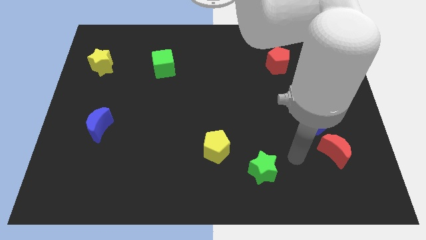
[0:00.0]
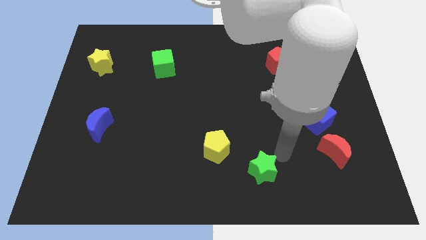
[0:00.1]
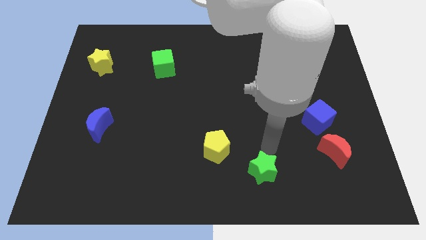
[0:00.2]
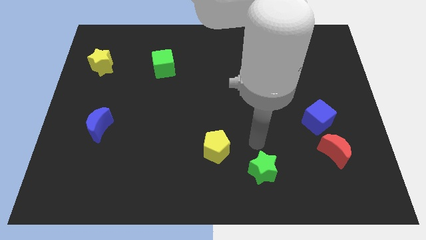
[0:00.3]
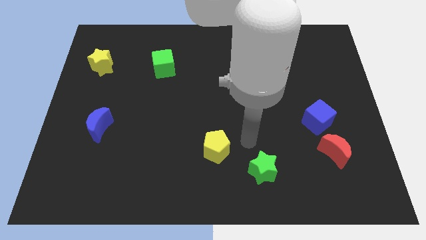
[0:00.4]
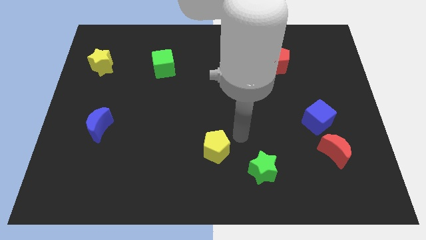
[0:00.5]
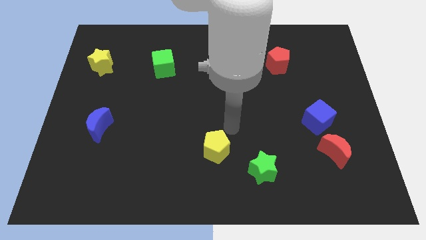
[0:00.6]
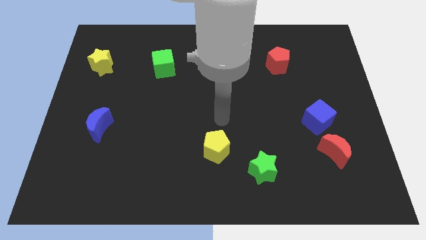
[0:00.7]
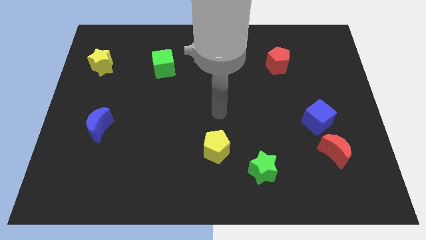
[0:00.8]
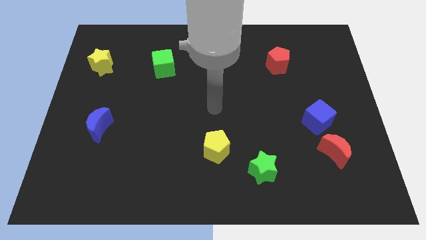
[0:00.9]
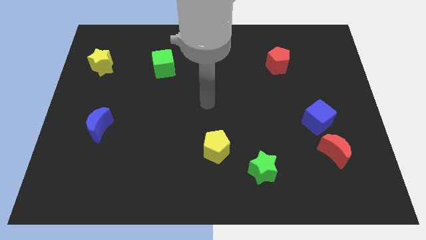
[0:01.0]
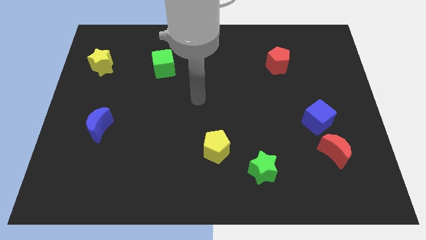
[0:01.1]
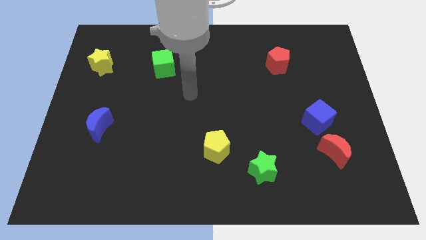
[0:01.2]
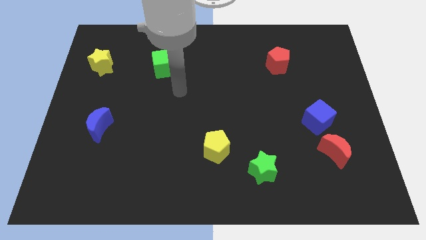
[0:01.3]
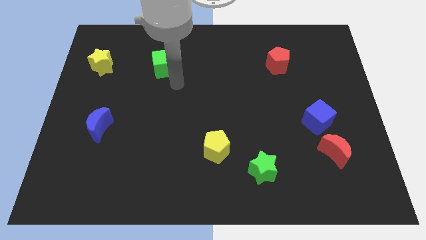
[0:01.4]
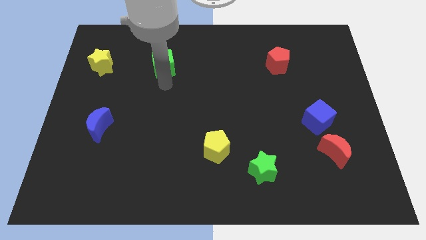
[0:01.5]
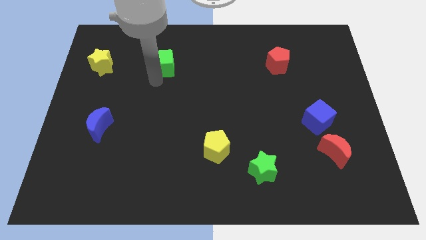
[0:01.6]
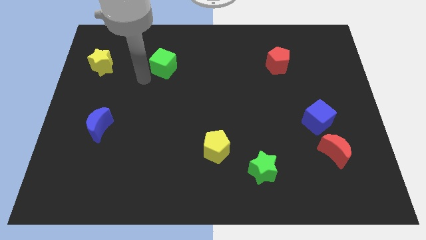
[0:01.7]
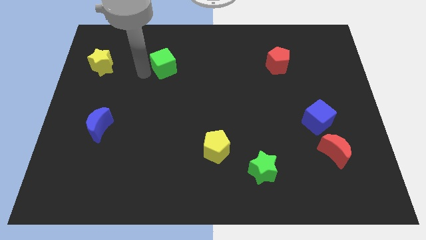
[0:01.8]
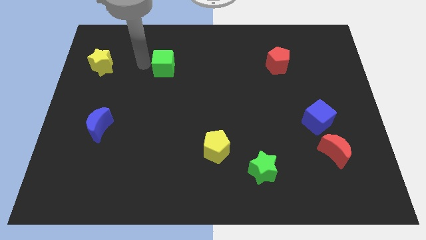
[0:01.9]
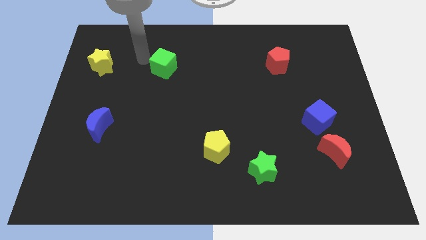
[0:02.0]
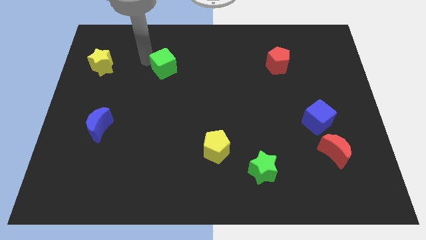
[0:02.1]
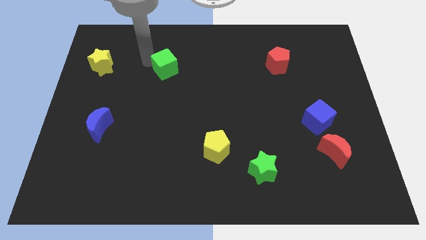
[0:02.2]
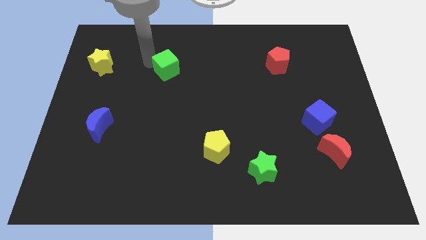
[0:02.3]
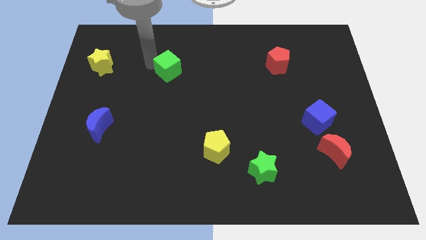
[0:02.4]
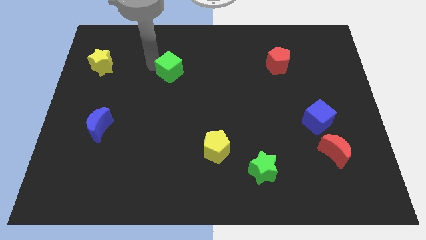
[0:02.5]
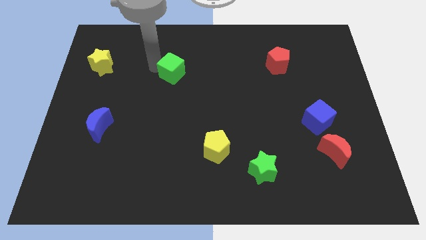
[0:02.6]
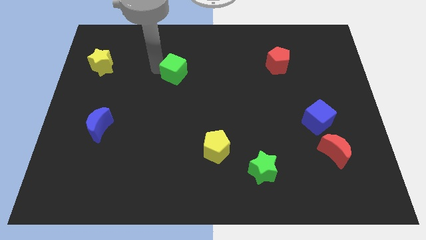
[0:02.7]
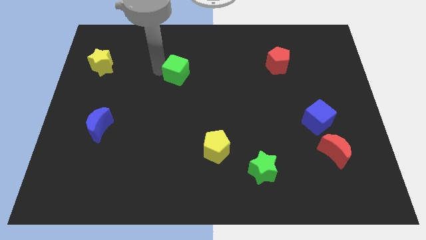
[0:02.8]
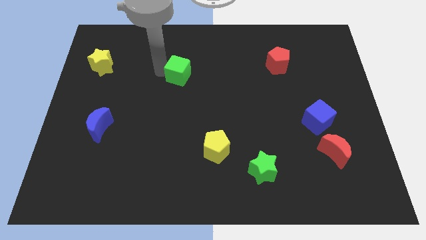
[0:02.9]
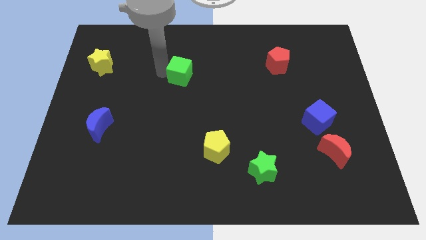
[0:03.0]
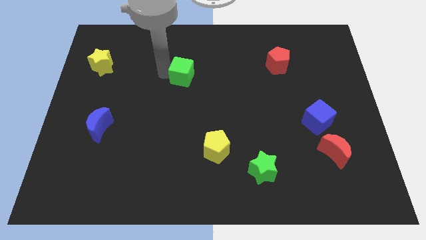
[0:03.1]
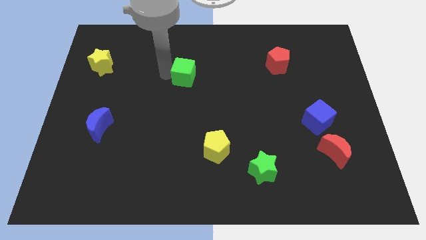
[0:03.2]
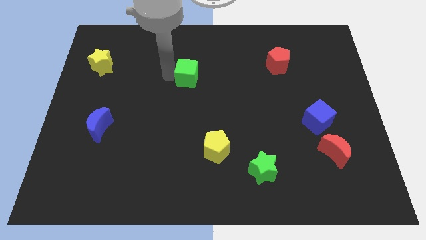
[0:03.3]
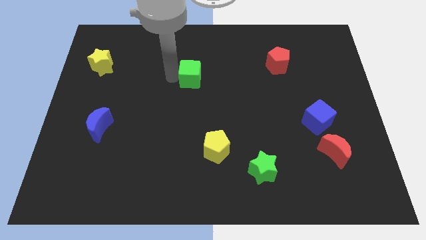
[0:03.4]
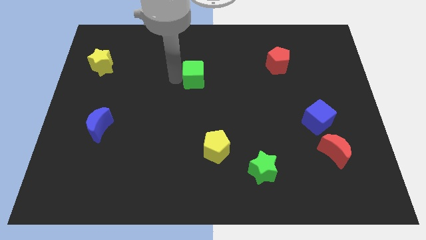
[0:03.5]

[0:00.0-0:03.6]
push the green cube to the right slightly

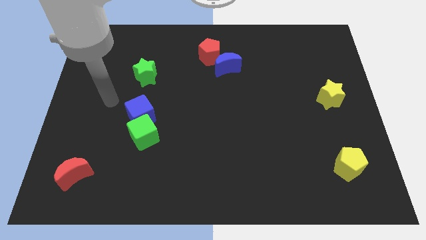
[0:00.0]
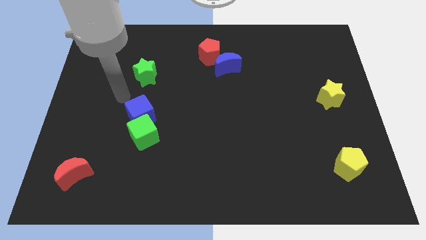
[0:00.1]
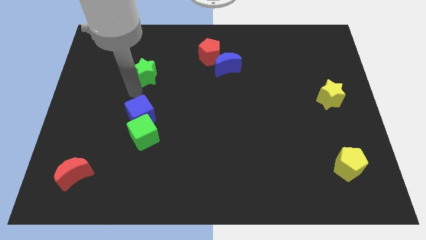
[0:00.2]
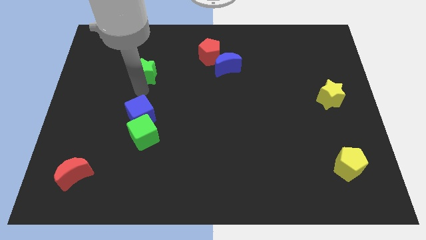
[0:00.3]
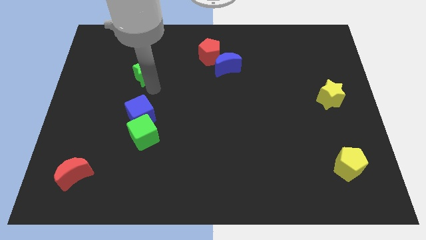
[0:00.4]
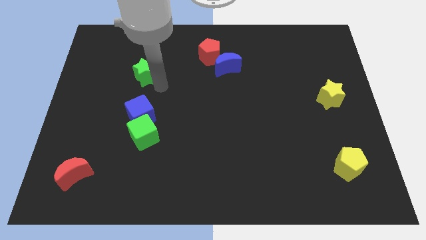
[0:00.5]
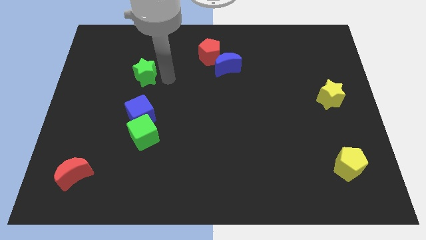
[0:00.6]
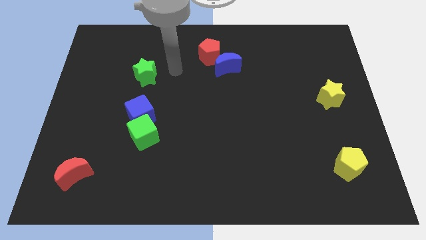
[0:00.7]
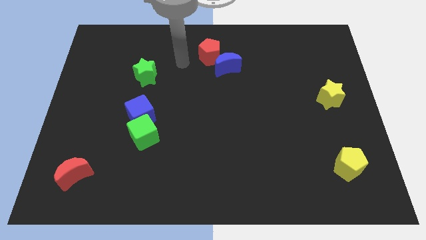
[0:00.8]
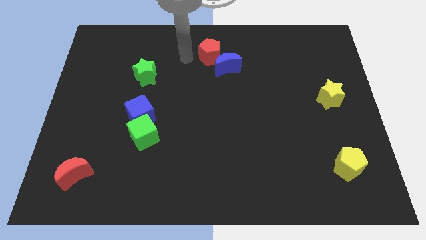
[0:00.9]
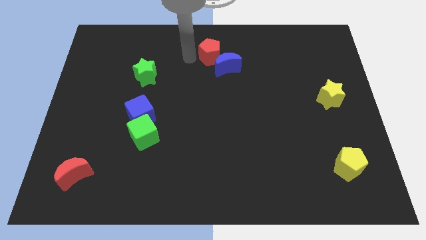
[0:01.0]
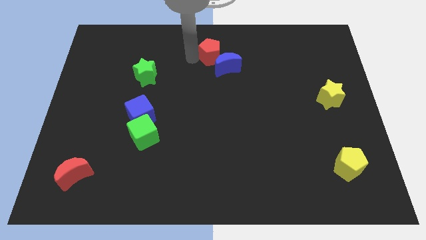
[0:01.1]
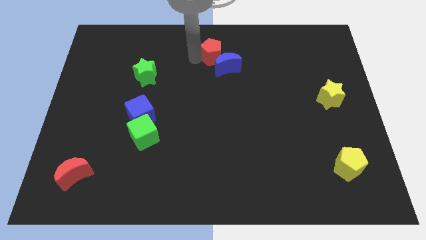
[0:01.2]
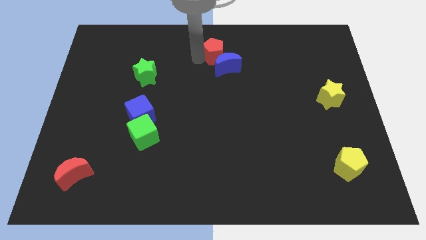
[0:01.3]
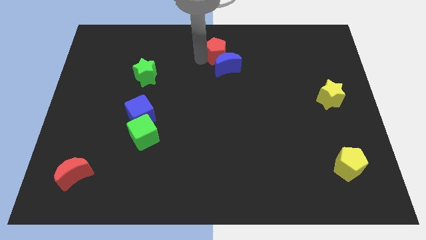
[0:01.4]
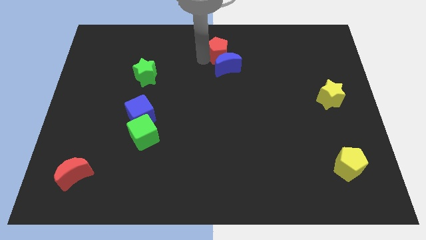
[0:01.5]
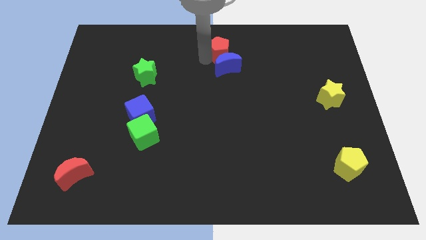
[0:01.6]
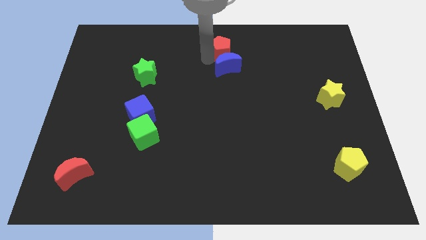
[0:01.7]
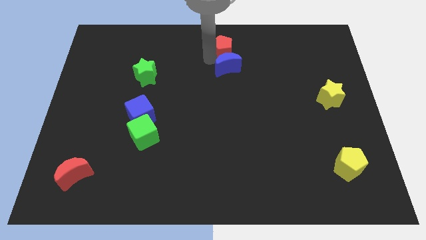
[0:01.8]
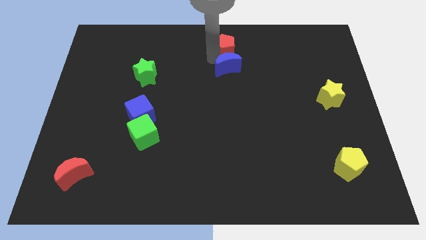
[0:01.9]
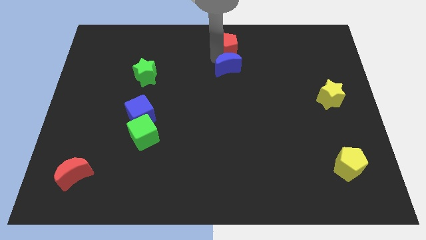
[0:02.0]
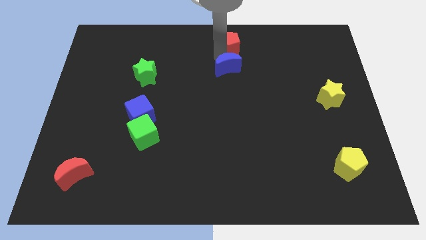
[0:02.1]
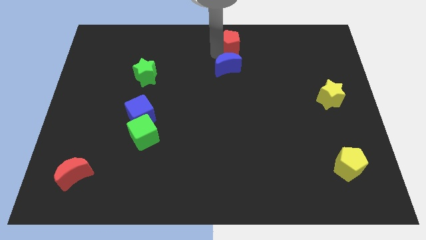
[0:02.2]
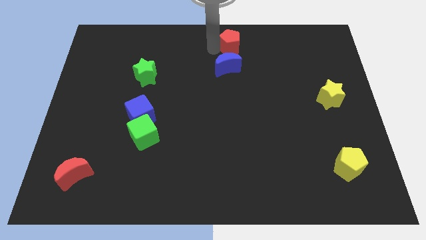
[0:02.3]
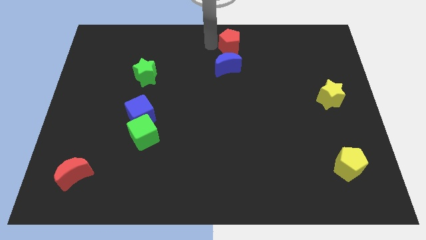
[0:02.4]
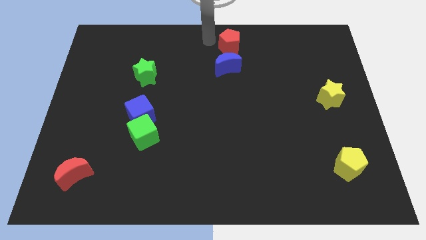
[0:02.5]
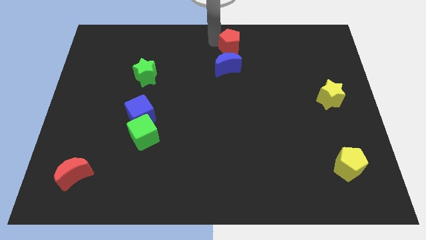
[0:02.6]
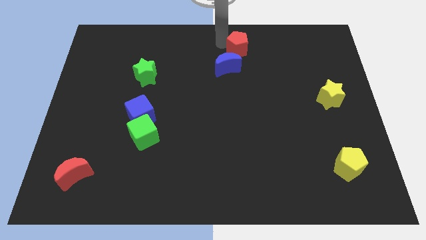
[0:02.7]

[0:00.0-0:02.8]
slightly push the red pentagon right

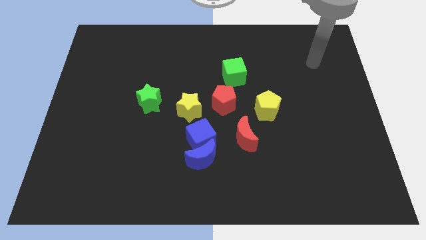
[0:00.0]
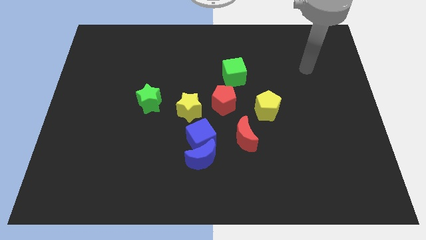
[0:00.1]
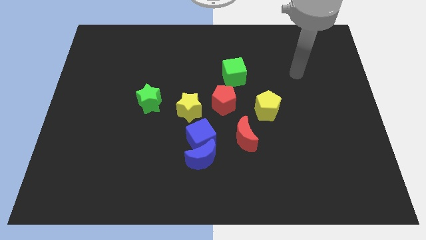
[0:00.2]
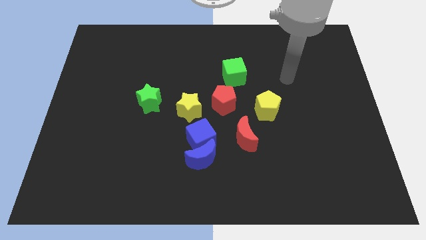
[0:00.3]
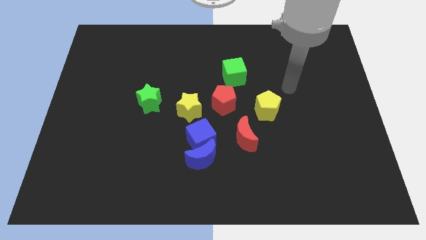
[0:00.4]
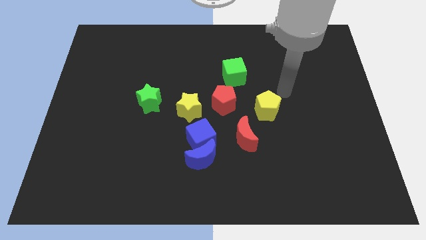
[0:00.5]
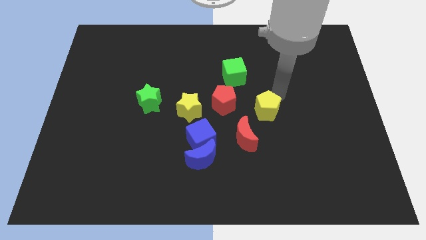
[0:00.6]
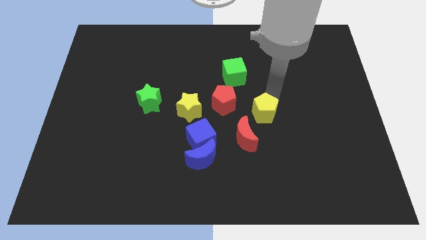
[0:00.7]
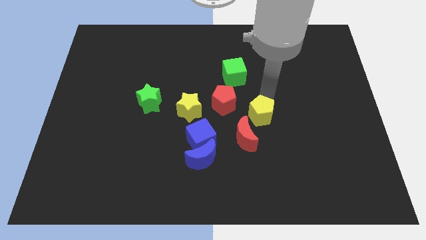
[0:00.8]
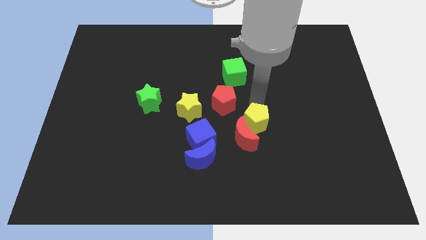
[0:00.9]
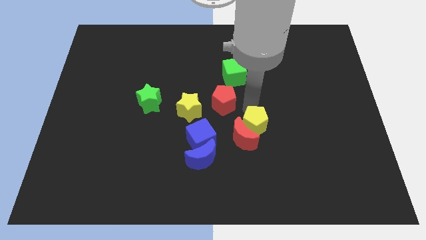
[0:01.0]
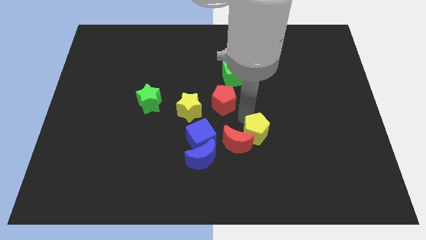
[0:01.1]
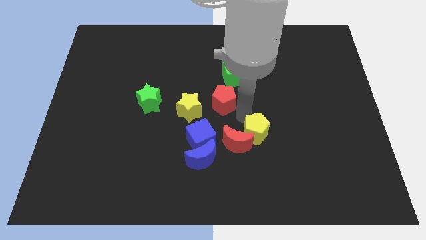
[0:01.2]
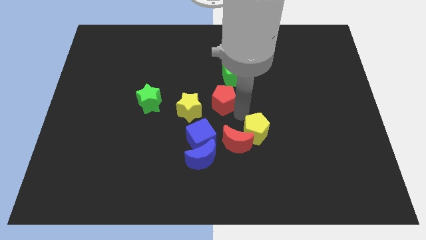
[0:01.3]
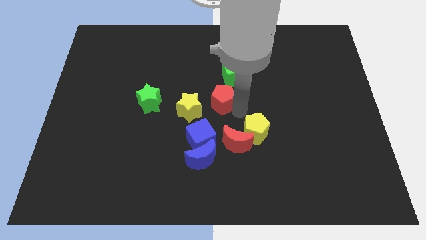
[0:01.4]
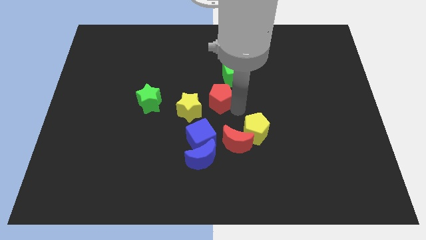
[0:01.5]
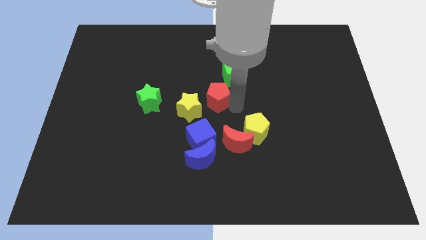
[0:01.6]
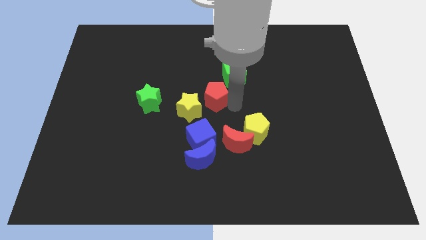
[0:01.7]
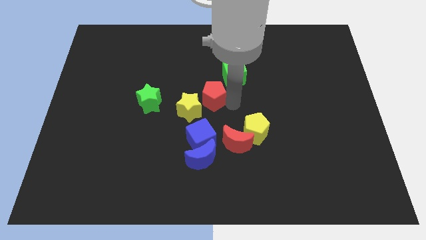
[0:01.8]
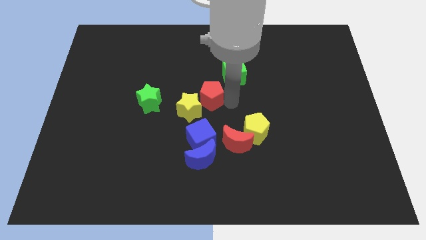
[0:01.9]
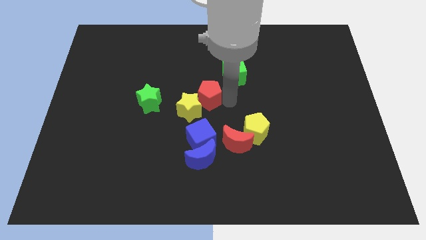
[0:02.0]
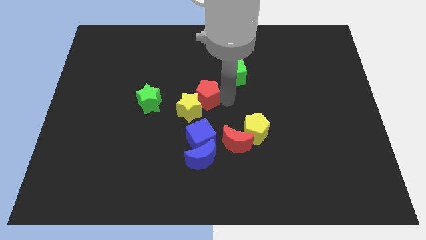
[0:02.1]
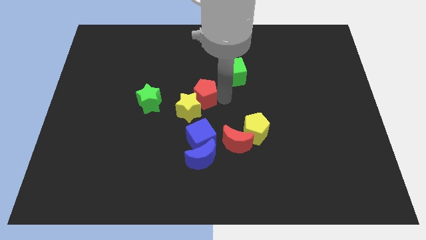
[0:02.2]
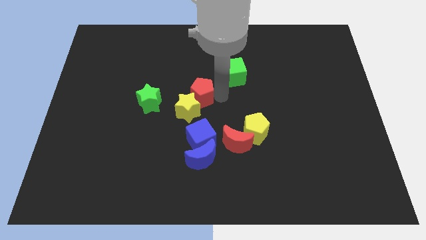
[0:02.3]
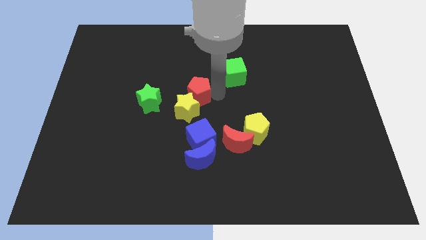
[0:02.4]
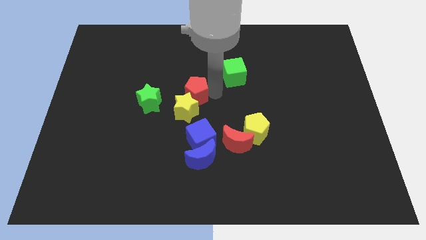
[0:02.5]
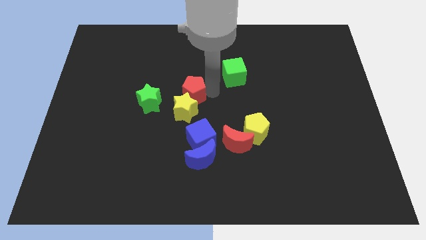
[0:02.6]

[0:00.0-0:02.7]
push the red pentagon slightly diagonally up and left
